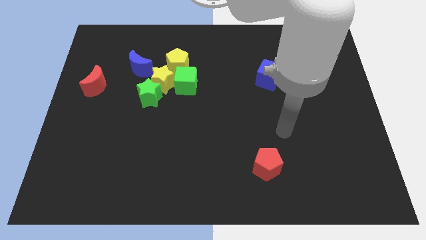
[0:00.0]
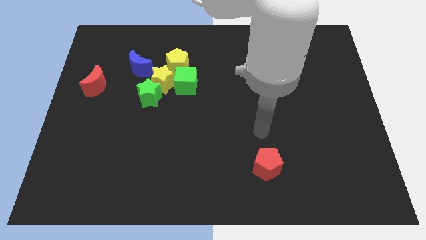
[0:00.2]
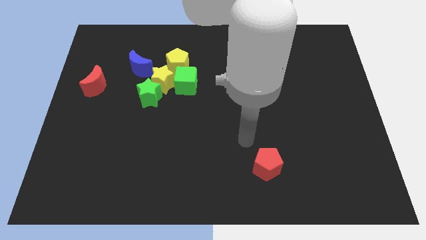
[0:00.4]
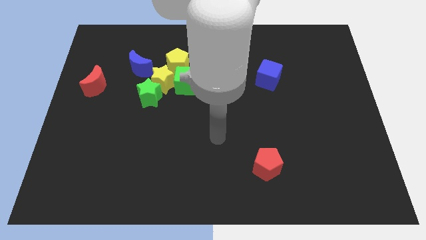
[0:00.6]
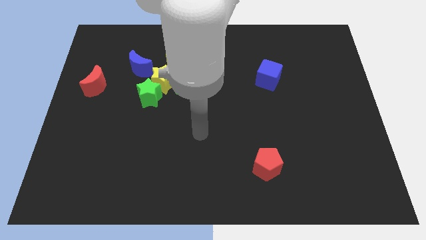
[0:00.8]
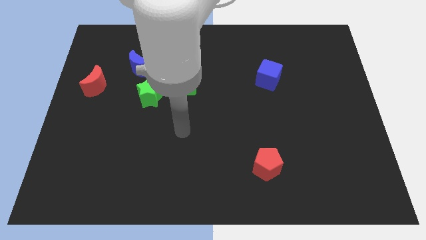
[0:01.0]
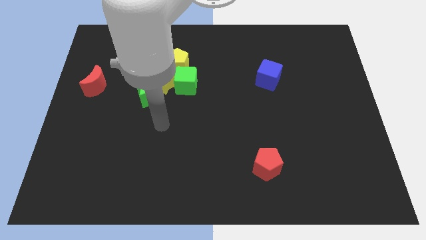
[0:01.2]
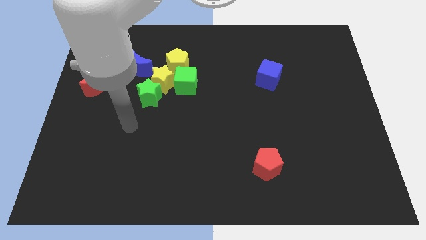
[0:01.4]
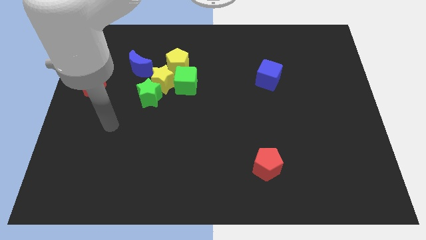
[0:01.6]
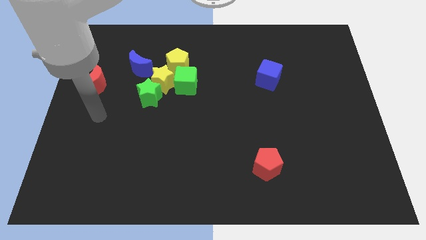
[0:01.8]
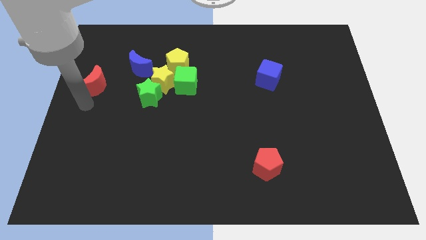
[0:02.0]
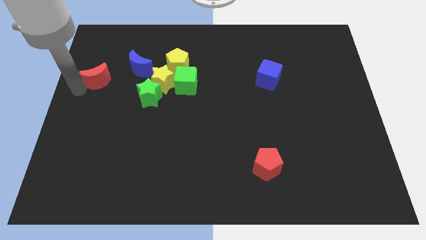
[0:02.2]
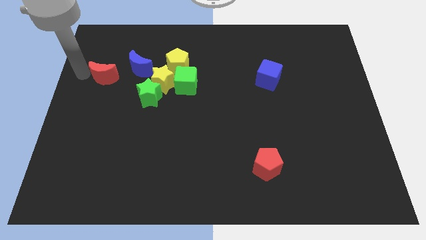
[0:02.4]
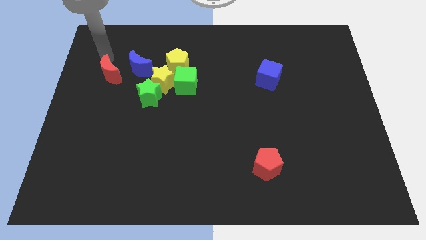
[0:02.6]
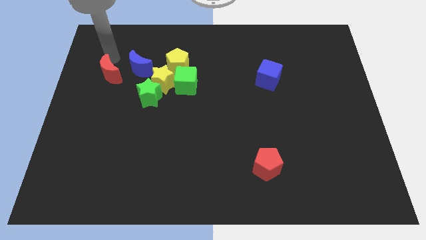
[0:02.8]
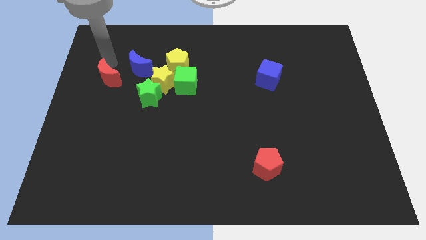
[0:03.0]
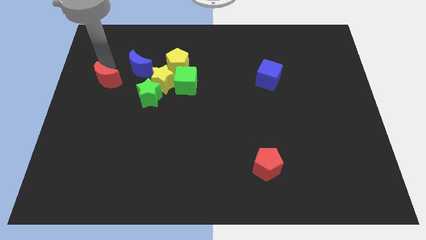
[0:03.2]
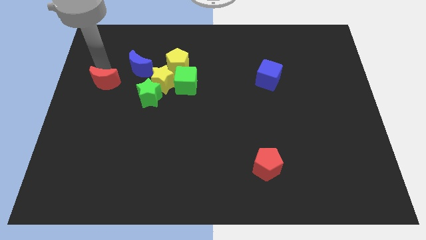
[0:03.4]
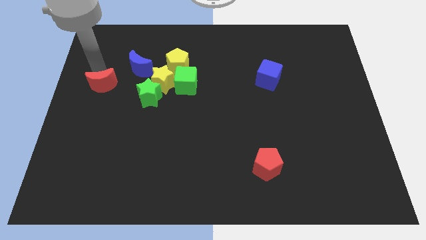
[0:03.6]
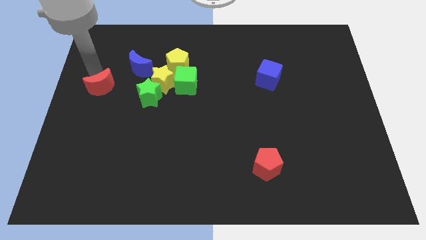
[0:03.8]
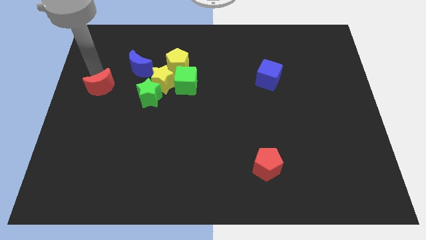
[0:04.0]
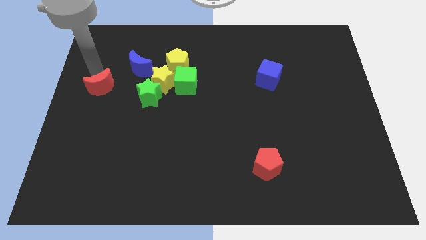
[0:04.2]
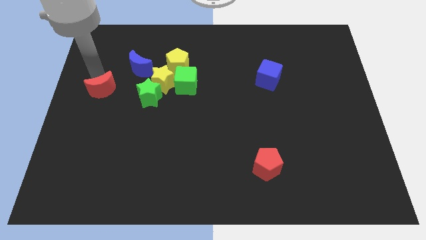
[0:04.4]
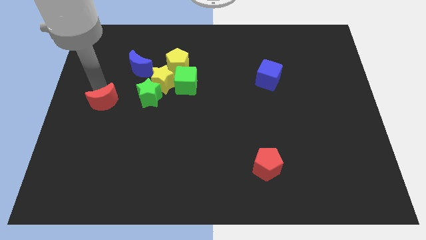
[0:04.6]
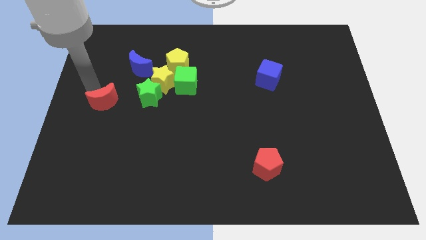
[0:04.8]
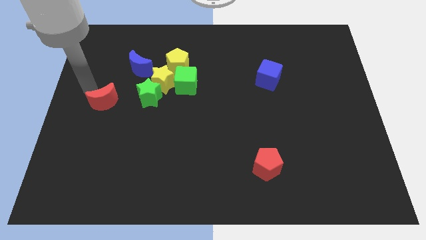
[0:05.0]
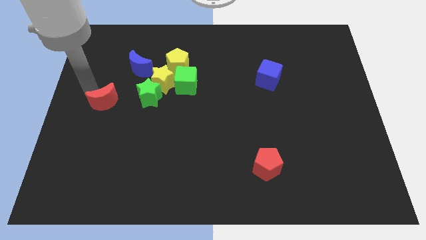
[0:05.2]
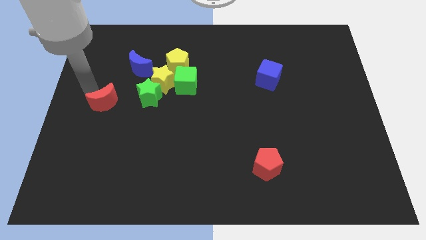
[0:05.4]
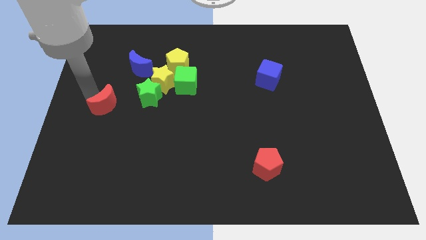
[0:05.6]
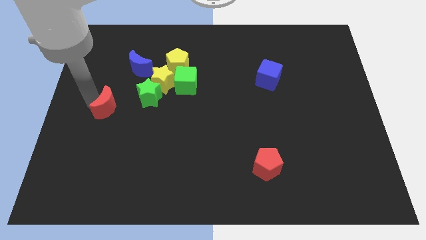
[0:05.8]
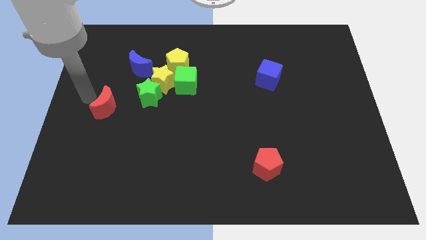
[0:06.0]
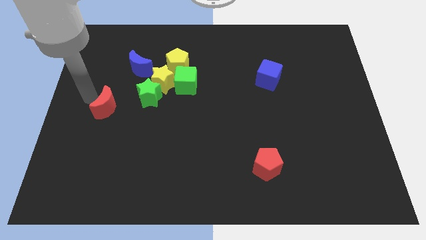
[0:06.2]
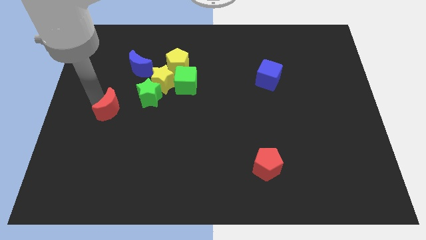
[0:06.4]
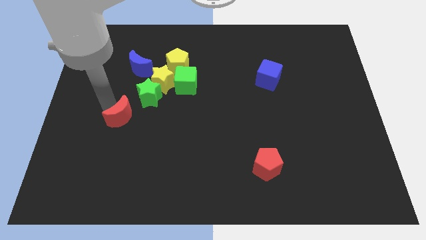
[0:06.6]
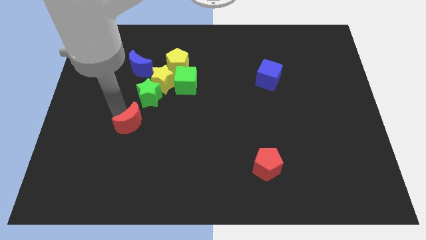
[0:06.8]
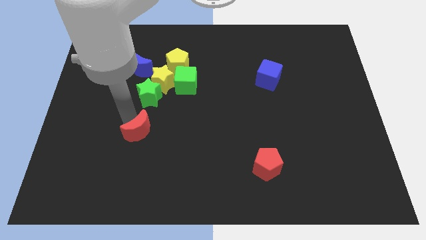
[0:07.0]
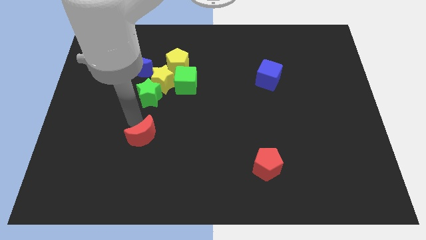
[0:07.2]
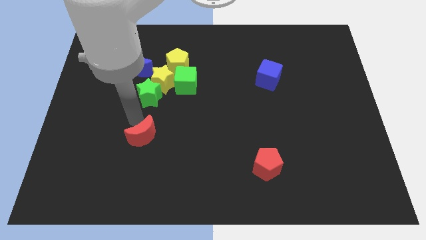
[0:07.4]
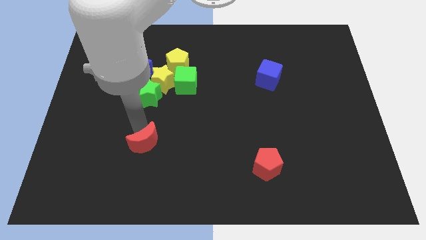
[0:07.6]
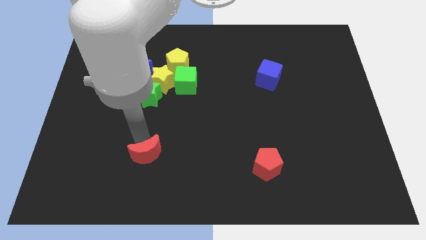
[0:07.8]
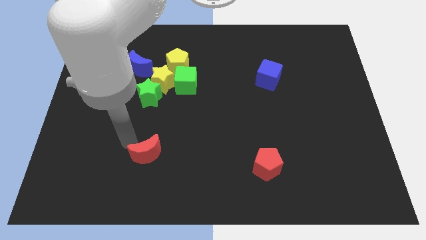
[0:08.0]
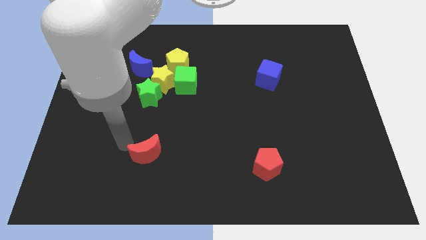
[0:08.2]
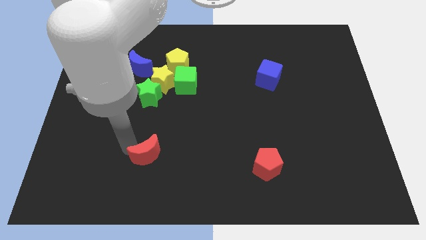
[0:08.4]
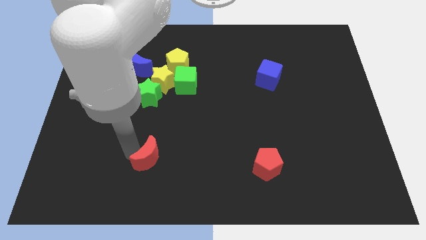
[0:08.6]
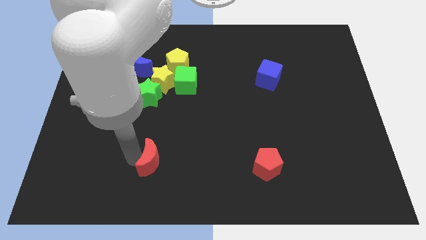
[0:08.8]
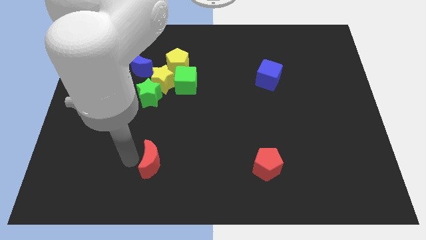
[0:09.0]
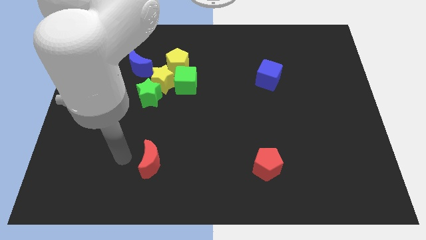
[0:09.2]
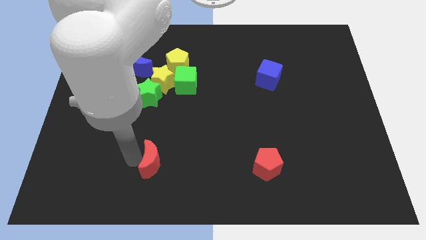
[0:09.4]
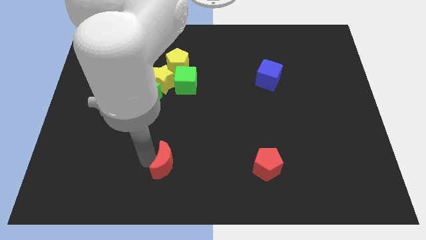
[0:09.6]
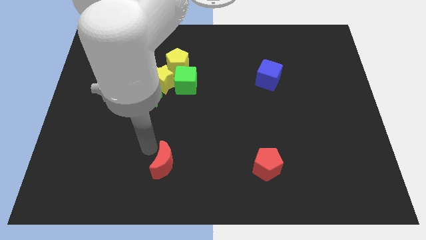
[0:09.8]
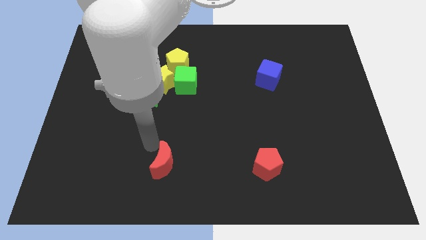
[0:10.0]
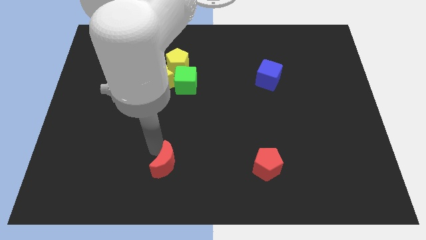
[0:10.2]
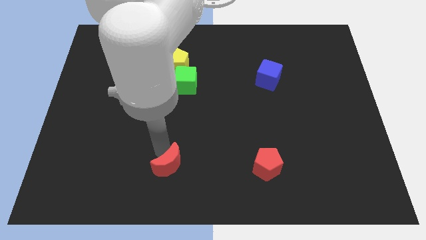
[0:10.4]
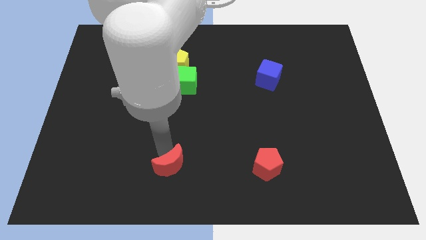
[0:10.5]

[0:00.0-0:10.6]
put the red moon to the bottom

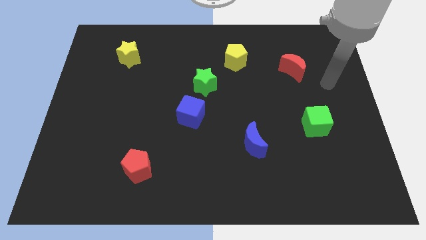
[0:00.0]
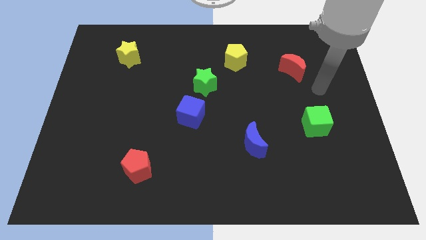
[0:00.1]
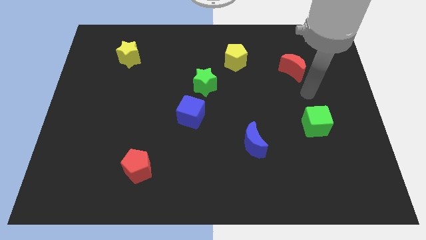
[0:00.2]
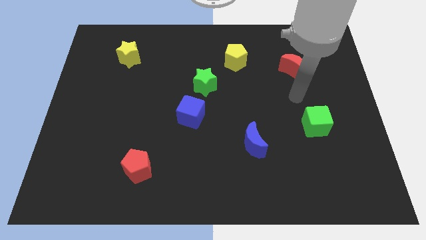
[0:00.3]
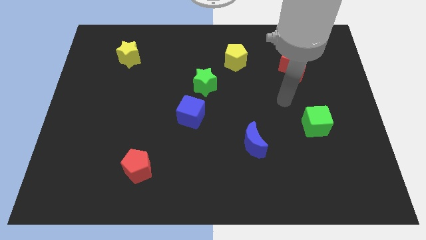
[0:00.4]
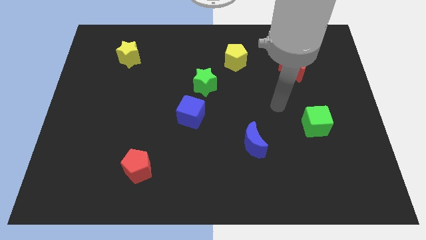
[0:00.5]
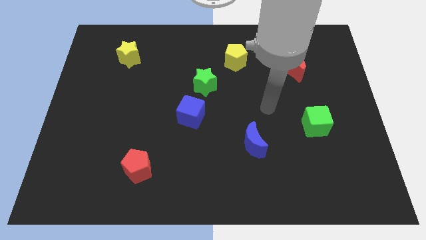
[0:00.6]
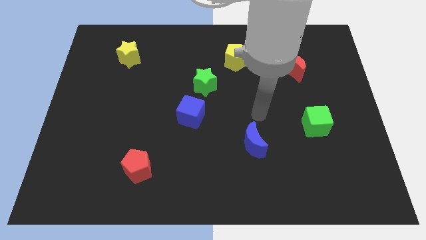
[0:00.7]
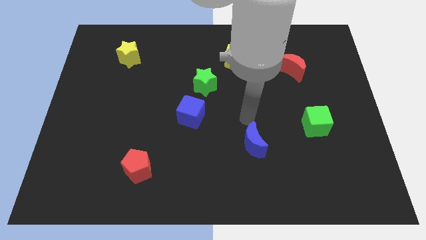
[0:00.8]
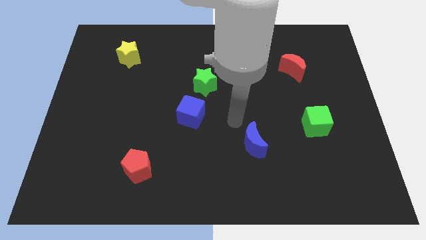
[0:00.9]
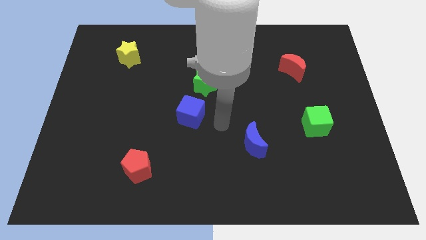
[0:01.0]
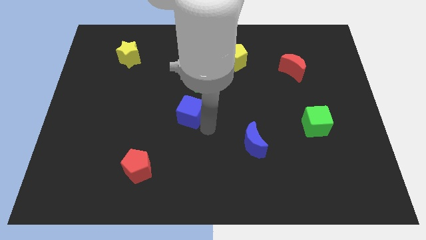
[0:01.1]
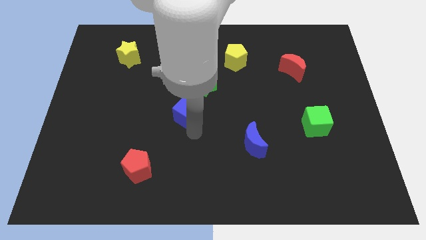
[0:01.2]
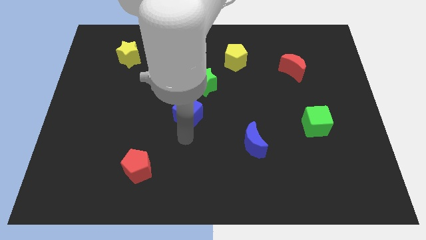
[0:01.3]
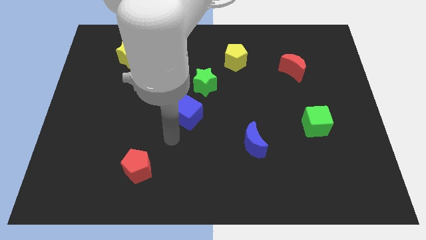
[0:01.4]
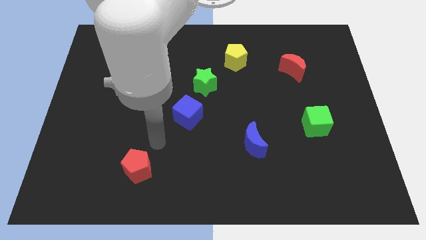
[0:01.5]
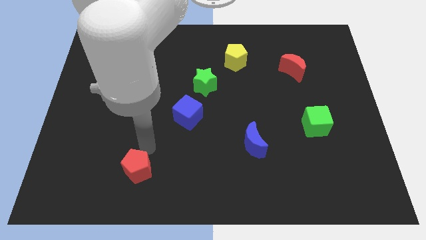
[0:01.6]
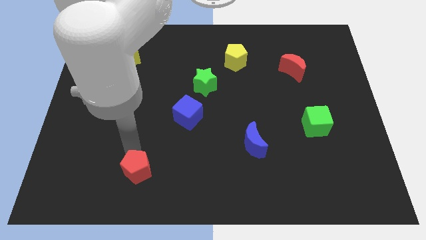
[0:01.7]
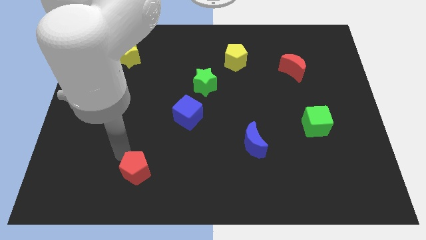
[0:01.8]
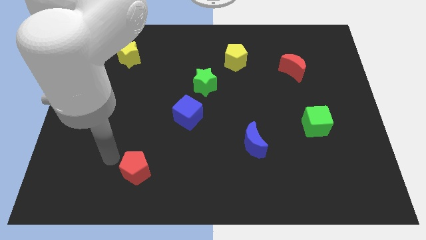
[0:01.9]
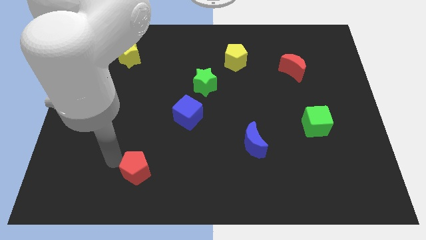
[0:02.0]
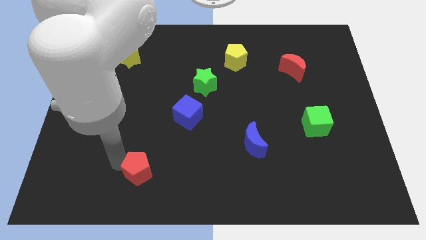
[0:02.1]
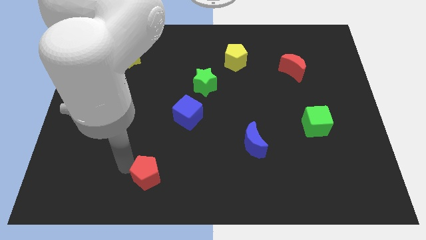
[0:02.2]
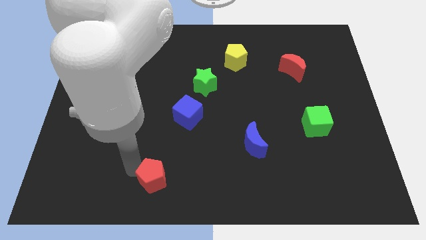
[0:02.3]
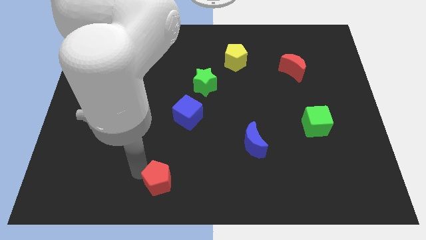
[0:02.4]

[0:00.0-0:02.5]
move the red pentagon to the bottom side
